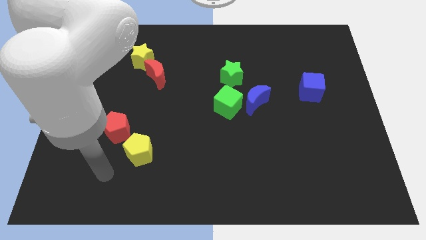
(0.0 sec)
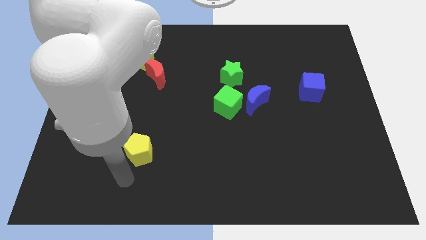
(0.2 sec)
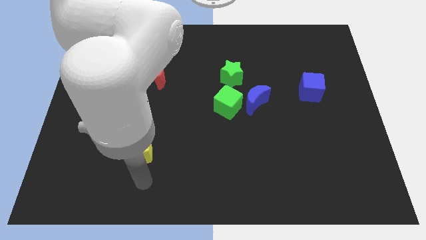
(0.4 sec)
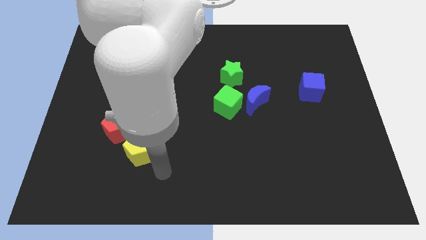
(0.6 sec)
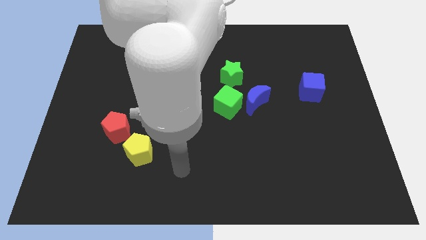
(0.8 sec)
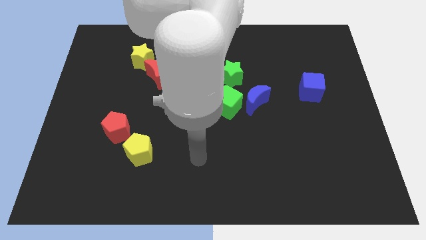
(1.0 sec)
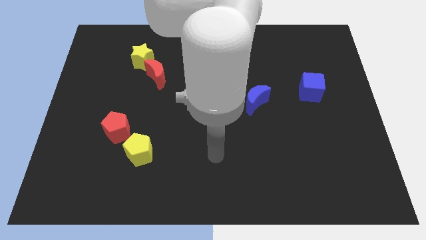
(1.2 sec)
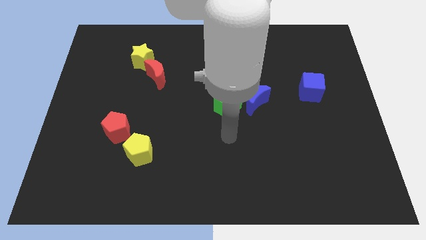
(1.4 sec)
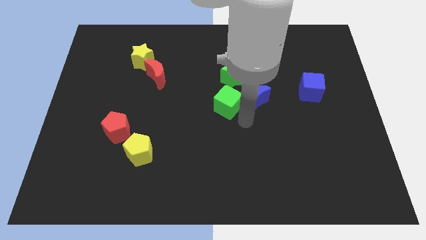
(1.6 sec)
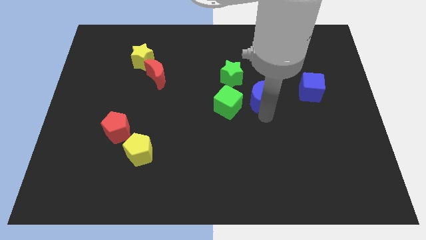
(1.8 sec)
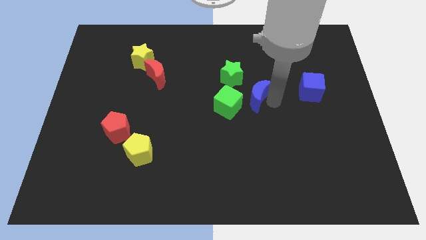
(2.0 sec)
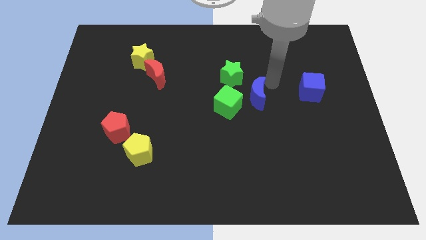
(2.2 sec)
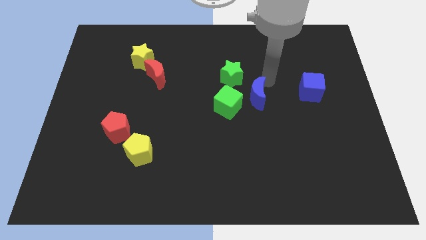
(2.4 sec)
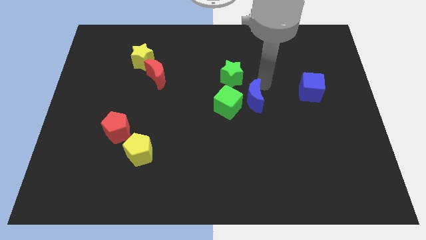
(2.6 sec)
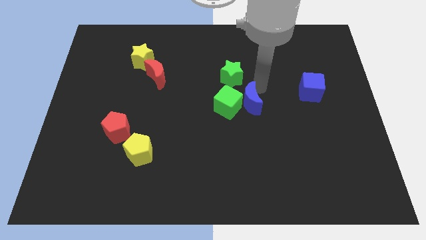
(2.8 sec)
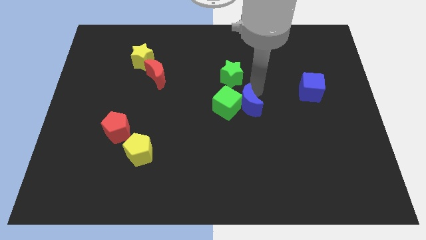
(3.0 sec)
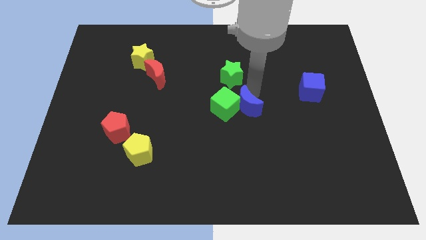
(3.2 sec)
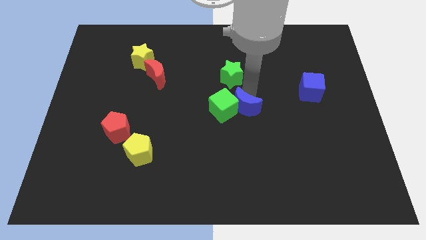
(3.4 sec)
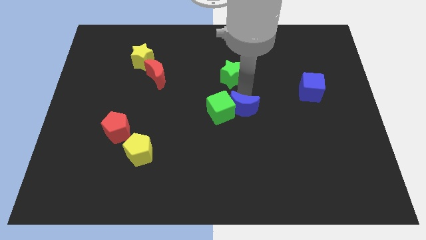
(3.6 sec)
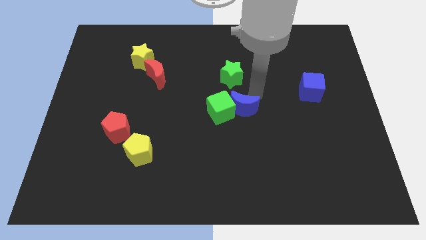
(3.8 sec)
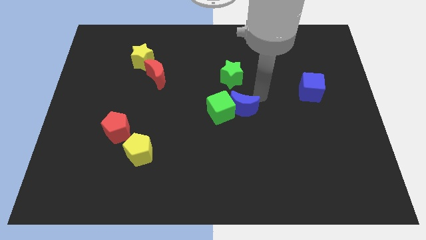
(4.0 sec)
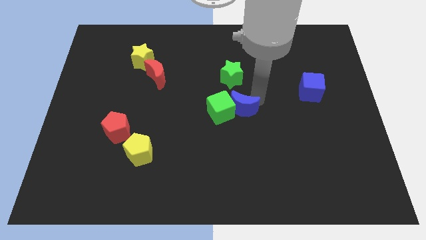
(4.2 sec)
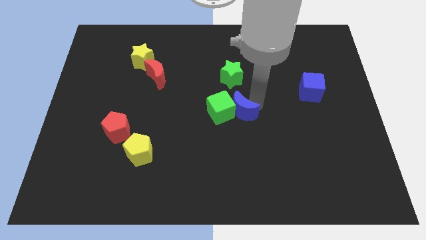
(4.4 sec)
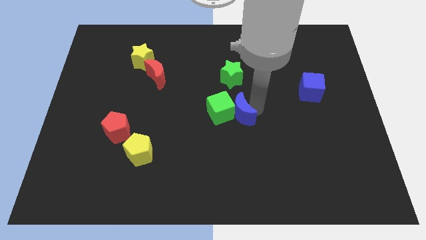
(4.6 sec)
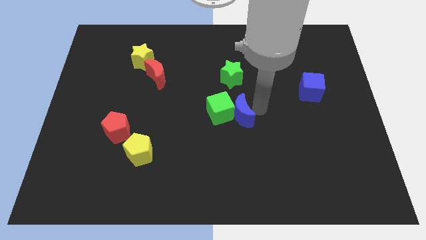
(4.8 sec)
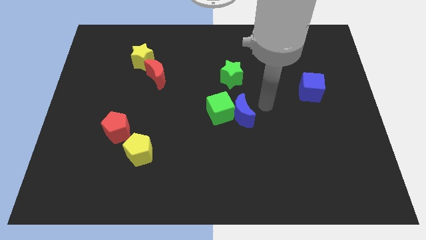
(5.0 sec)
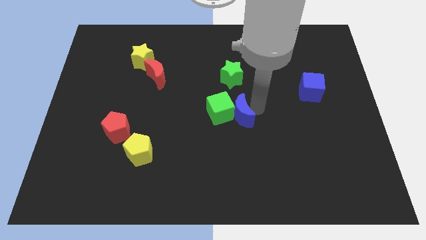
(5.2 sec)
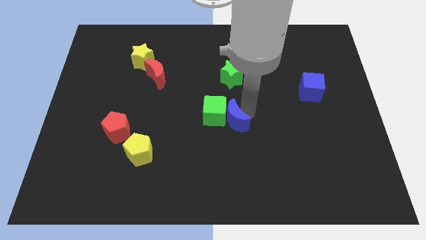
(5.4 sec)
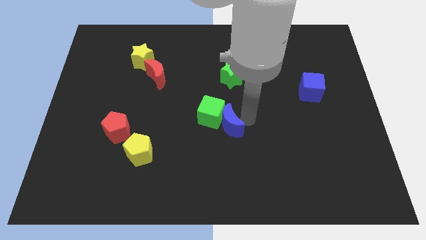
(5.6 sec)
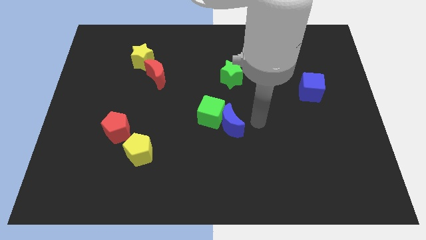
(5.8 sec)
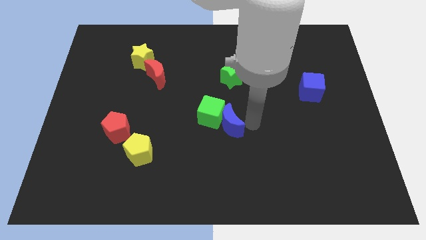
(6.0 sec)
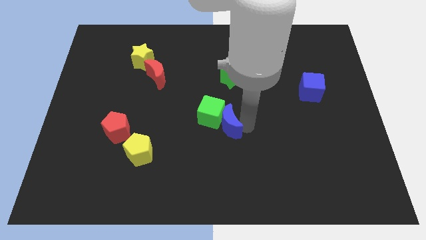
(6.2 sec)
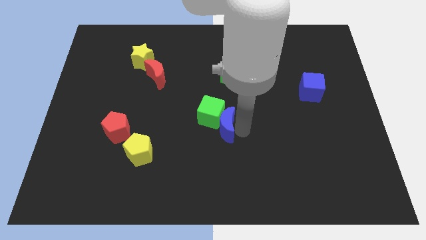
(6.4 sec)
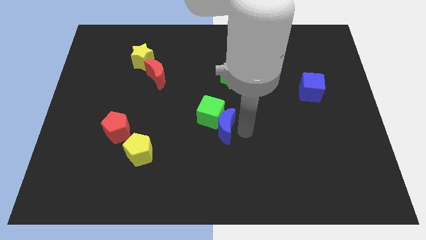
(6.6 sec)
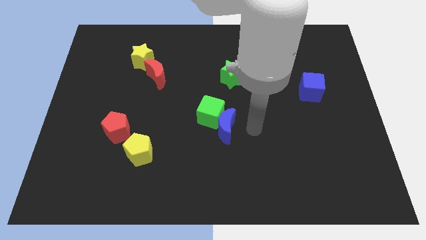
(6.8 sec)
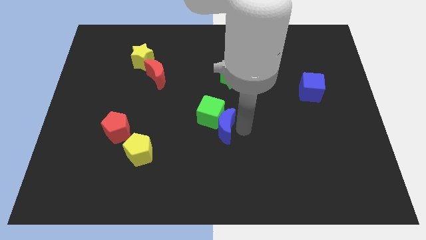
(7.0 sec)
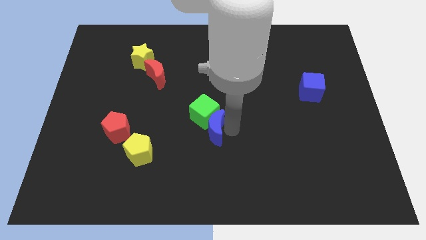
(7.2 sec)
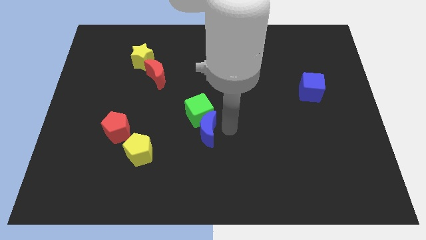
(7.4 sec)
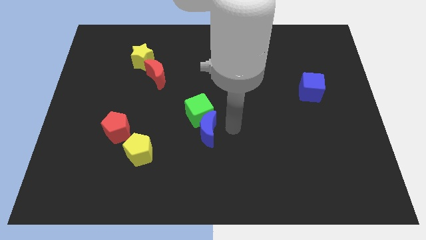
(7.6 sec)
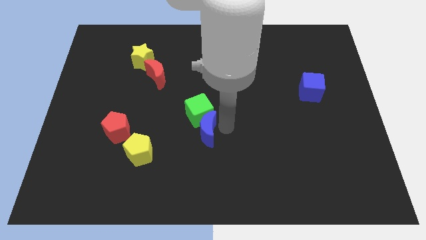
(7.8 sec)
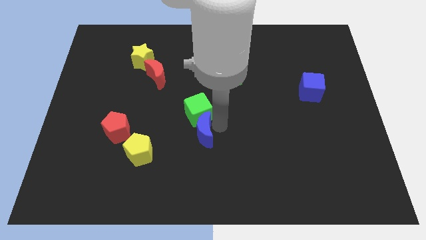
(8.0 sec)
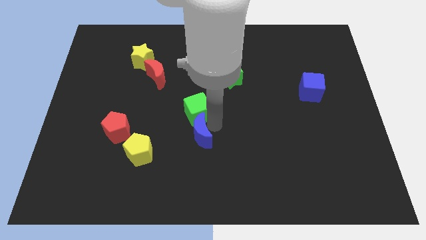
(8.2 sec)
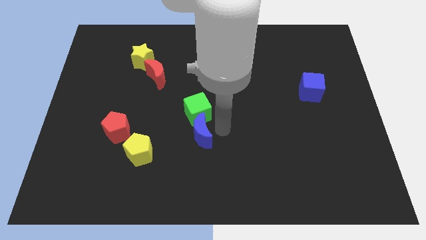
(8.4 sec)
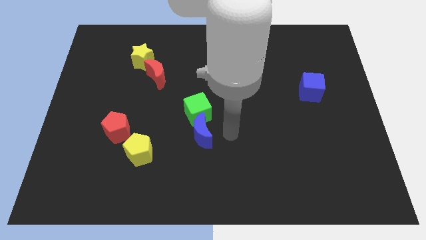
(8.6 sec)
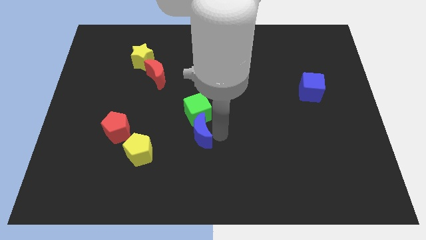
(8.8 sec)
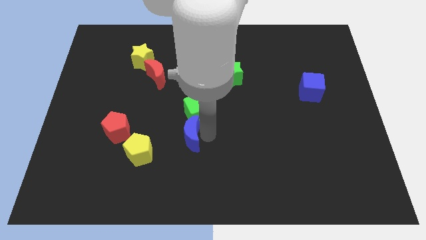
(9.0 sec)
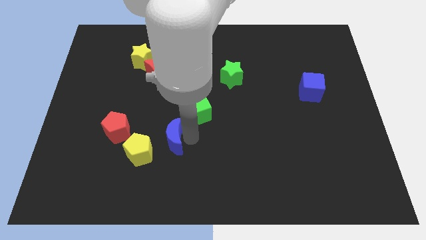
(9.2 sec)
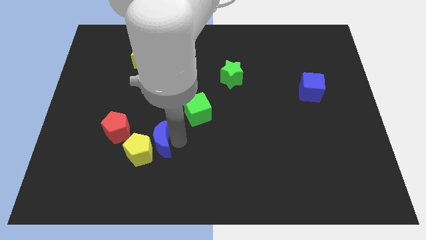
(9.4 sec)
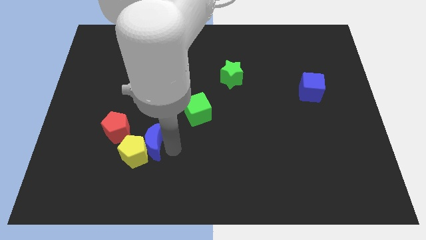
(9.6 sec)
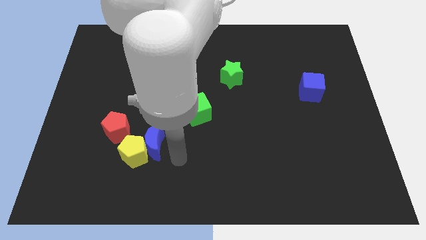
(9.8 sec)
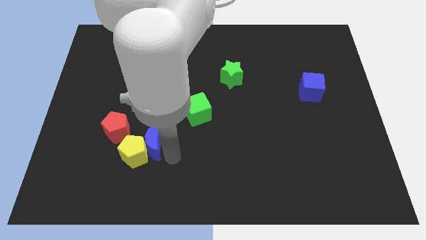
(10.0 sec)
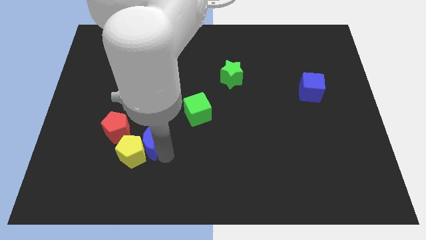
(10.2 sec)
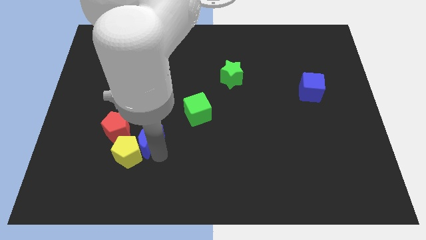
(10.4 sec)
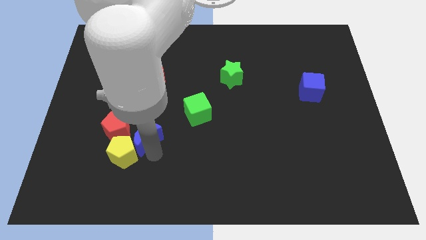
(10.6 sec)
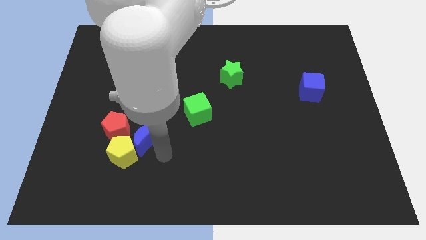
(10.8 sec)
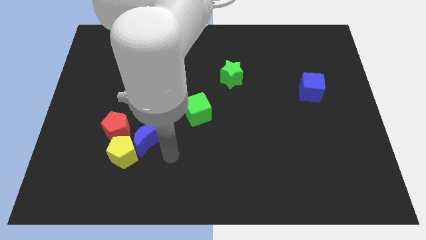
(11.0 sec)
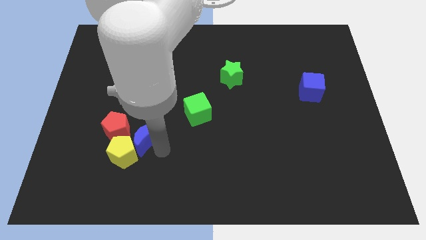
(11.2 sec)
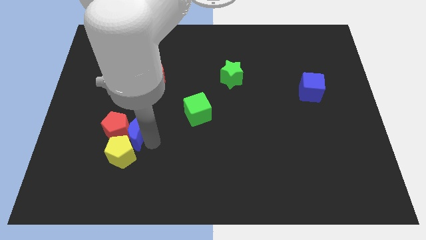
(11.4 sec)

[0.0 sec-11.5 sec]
slide the blue moon towards the red pentagon

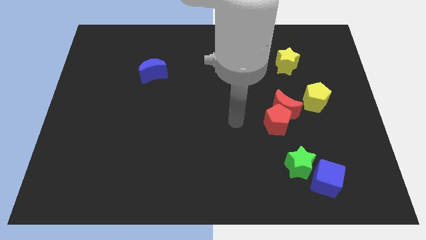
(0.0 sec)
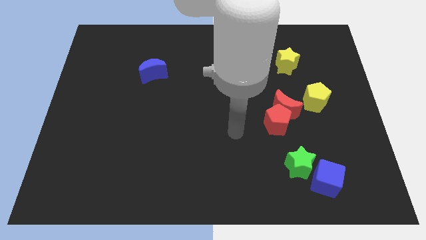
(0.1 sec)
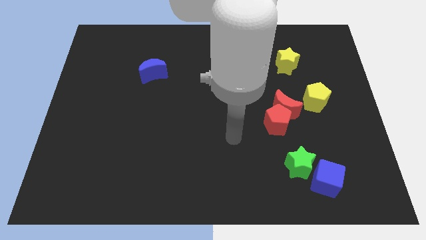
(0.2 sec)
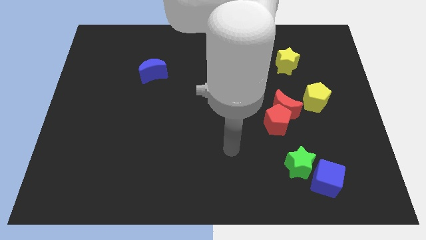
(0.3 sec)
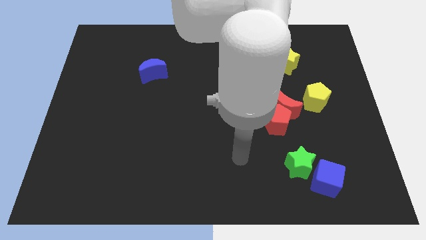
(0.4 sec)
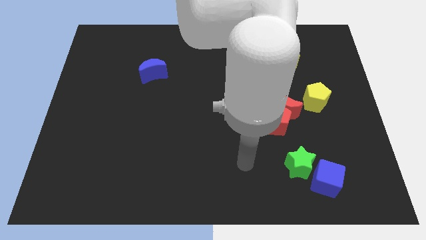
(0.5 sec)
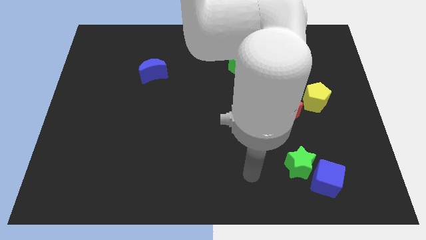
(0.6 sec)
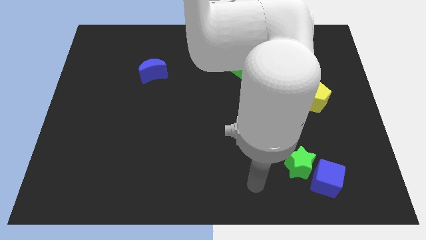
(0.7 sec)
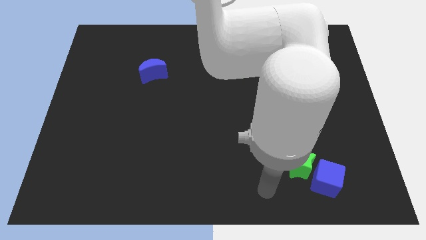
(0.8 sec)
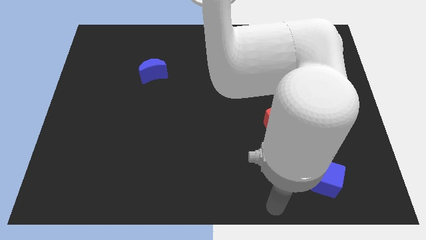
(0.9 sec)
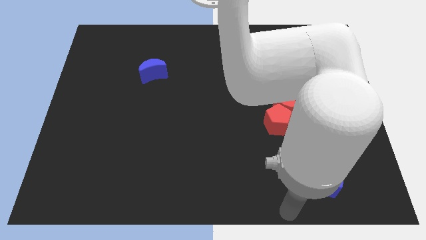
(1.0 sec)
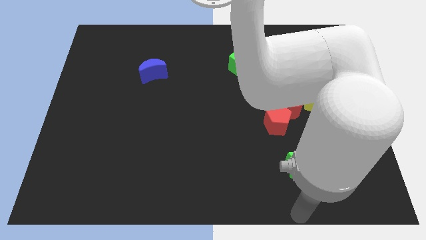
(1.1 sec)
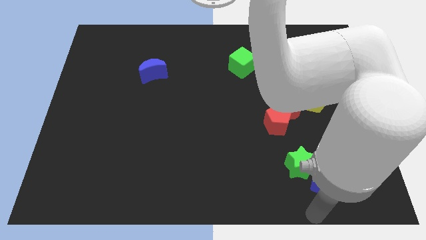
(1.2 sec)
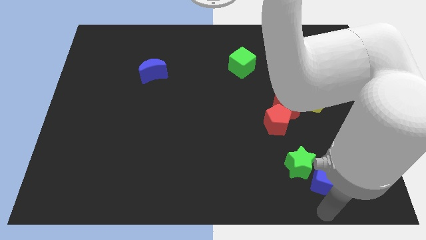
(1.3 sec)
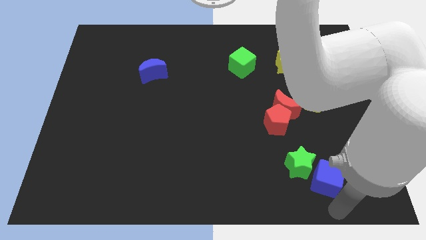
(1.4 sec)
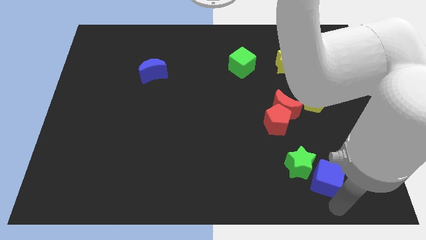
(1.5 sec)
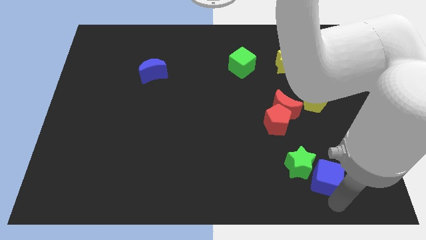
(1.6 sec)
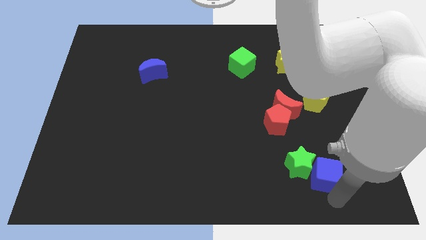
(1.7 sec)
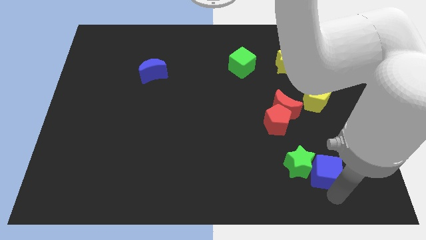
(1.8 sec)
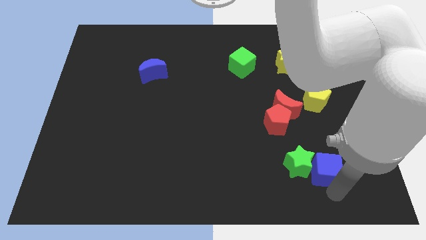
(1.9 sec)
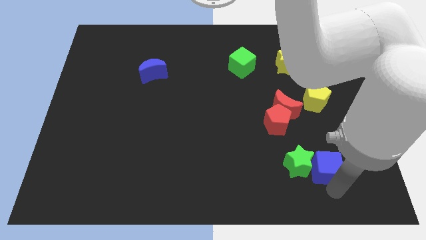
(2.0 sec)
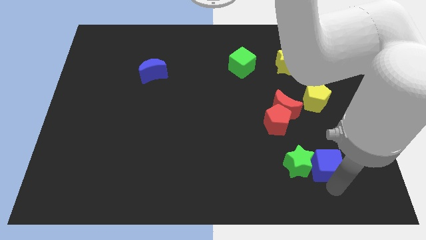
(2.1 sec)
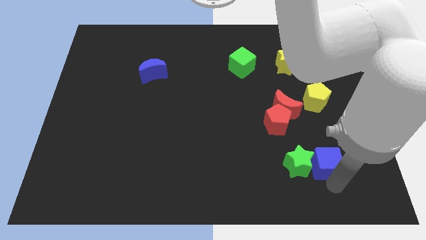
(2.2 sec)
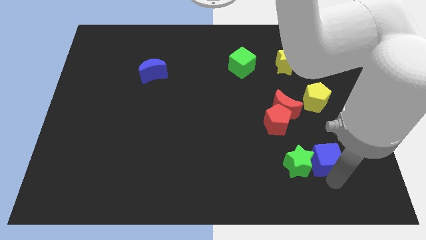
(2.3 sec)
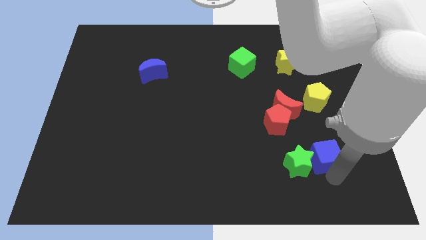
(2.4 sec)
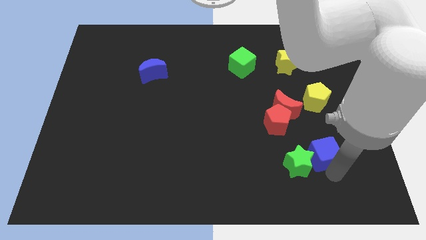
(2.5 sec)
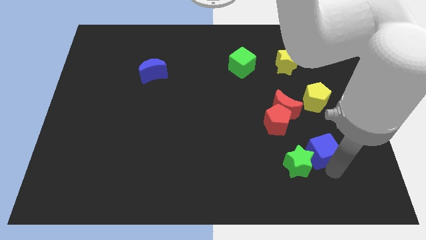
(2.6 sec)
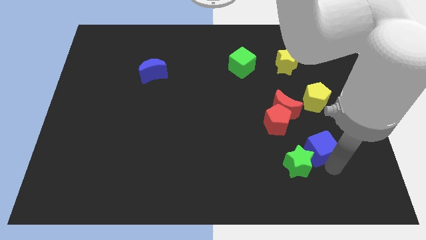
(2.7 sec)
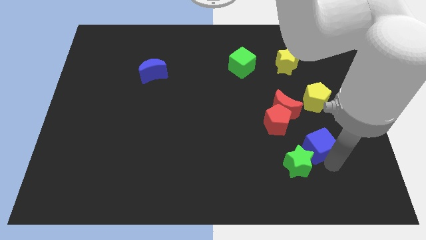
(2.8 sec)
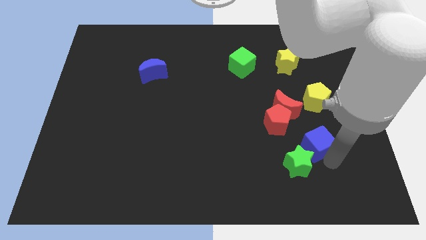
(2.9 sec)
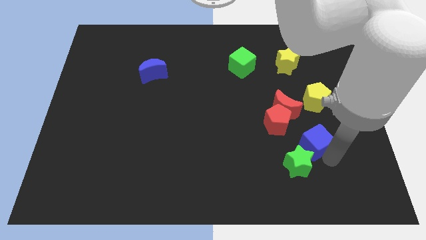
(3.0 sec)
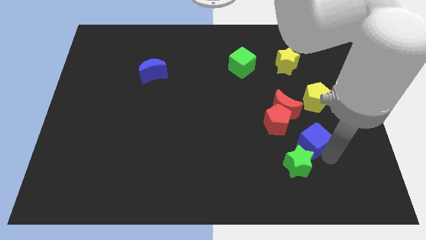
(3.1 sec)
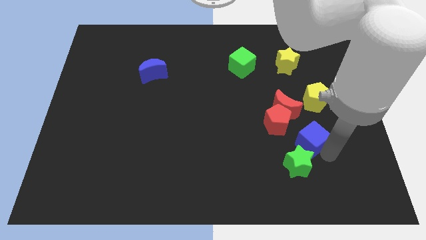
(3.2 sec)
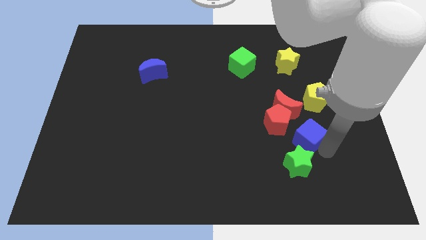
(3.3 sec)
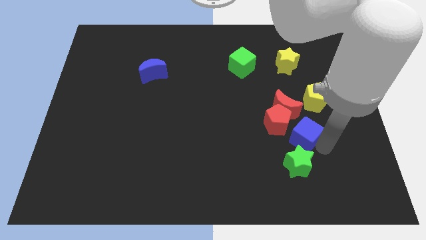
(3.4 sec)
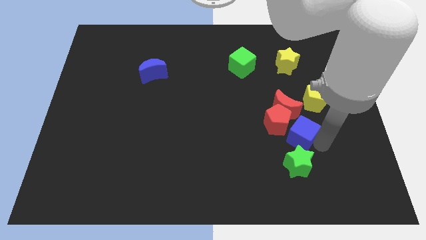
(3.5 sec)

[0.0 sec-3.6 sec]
put the blue cube next to the red pentagon
